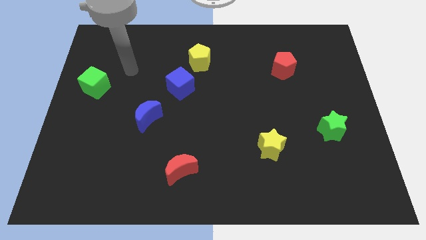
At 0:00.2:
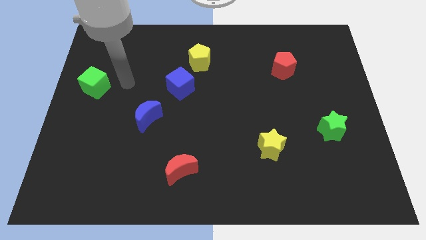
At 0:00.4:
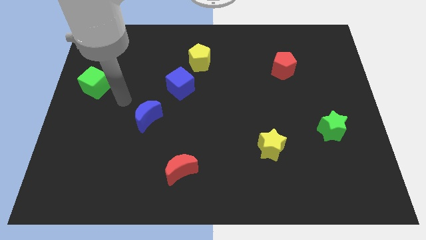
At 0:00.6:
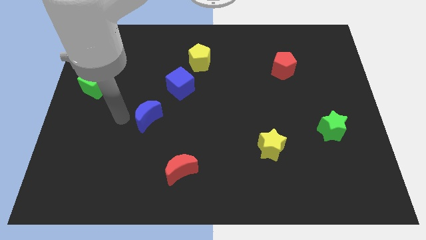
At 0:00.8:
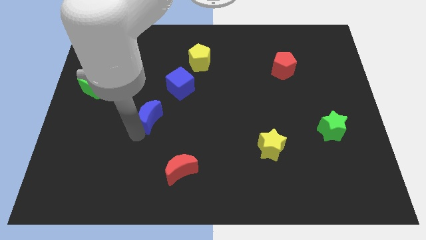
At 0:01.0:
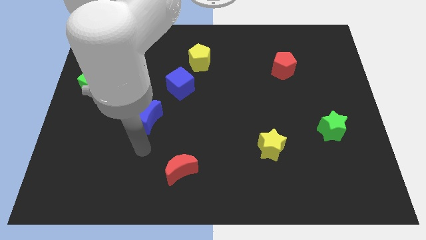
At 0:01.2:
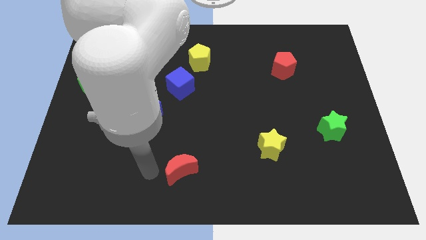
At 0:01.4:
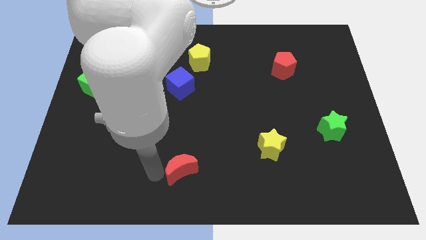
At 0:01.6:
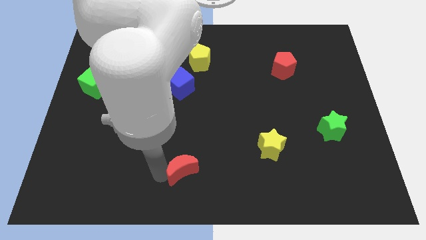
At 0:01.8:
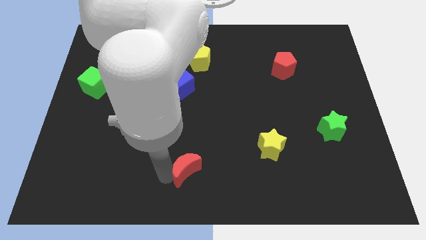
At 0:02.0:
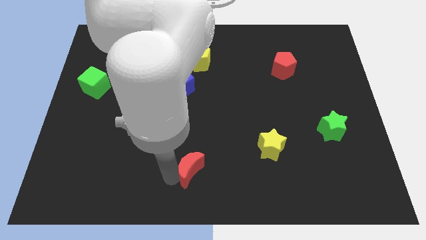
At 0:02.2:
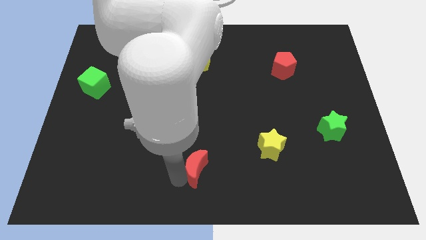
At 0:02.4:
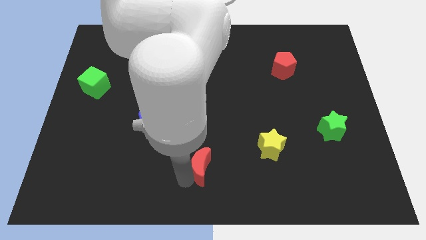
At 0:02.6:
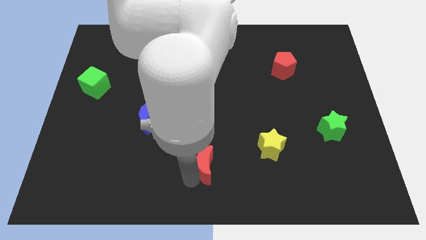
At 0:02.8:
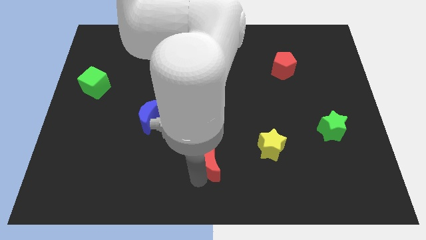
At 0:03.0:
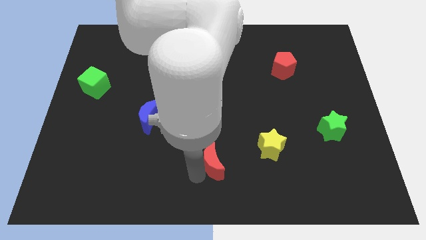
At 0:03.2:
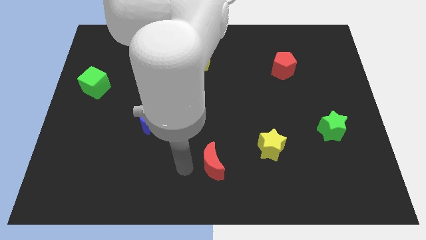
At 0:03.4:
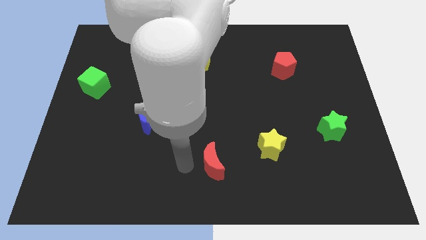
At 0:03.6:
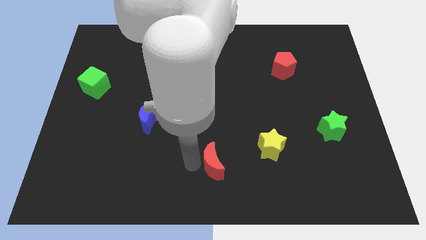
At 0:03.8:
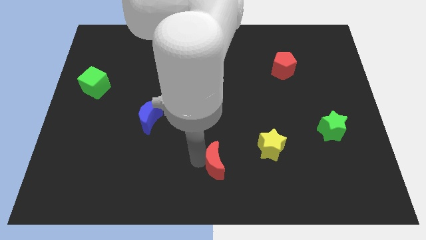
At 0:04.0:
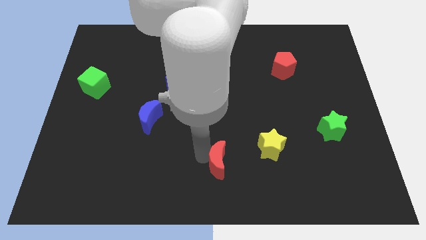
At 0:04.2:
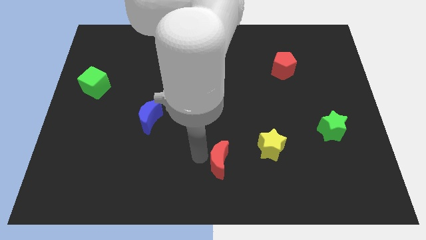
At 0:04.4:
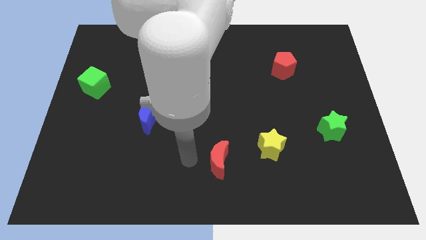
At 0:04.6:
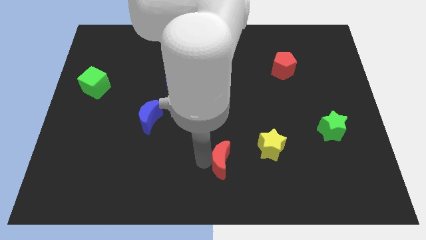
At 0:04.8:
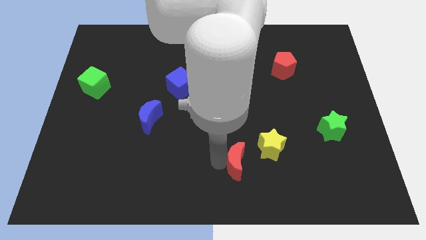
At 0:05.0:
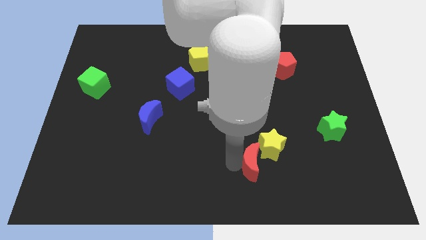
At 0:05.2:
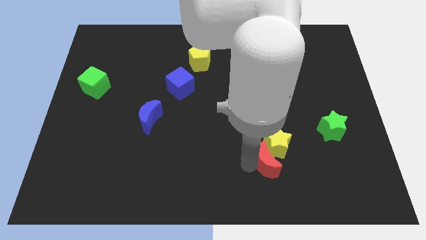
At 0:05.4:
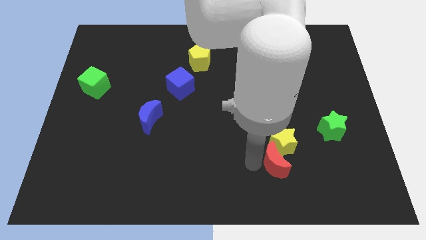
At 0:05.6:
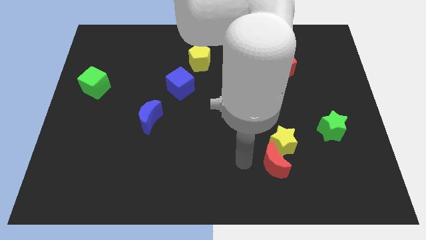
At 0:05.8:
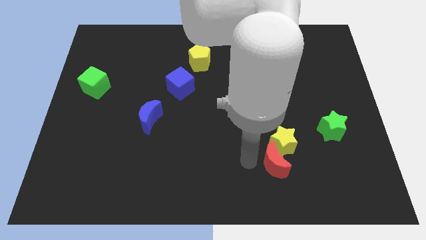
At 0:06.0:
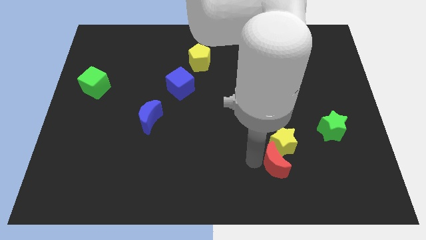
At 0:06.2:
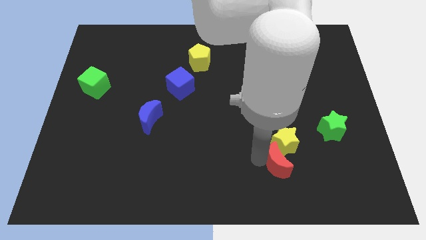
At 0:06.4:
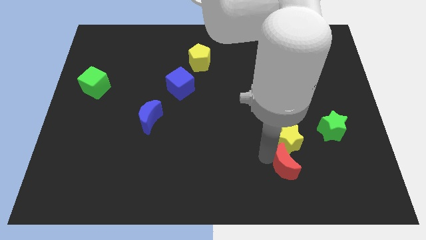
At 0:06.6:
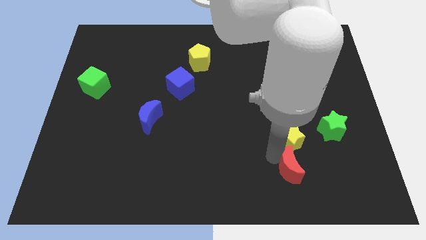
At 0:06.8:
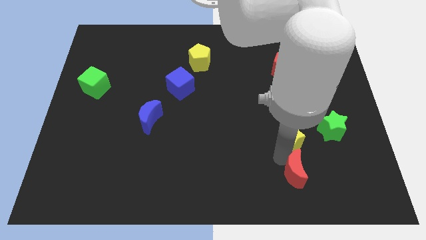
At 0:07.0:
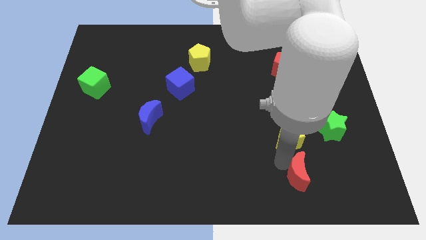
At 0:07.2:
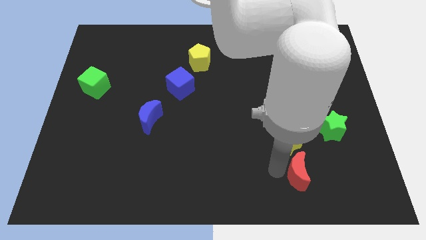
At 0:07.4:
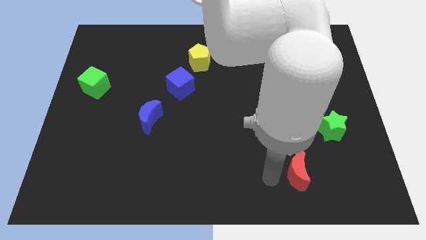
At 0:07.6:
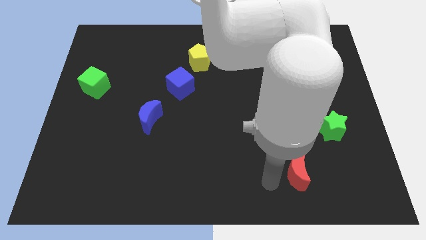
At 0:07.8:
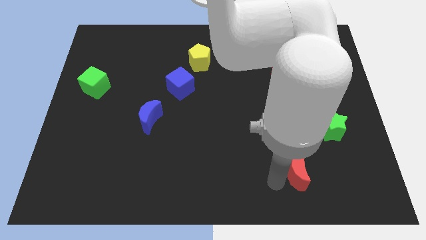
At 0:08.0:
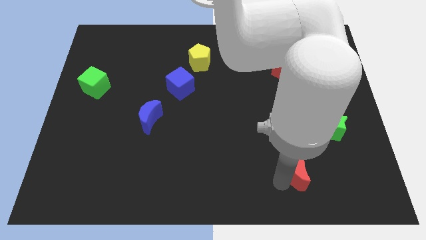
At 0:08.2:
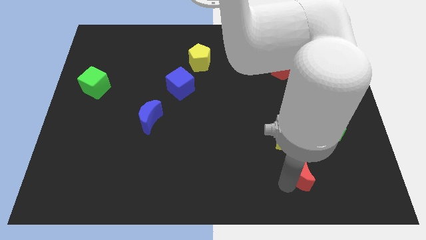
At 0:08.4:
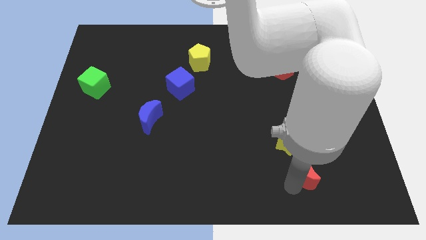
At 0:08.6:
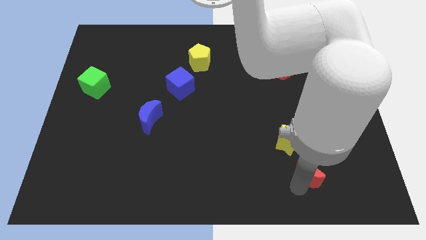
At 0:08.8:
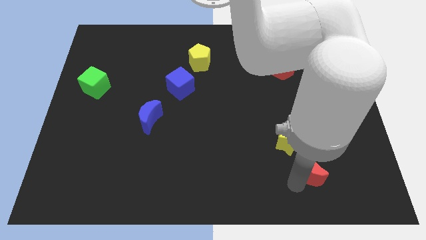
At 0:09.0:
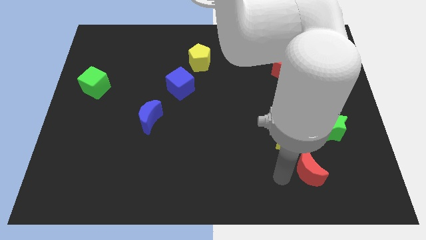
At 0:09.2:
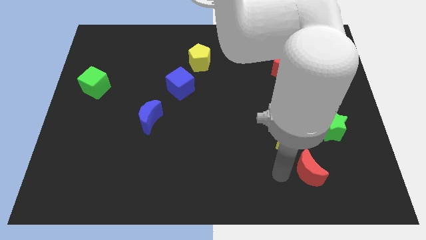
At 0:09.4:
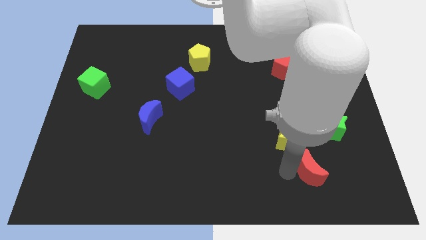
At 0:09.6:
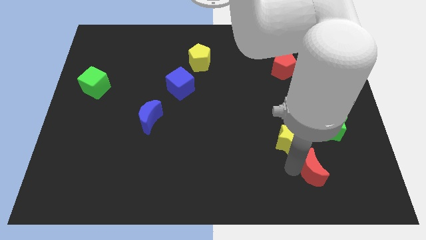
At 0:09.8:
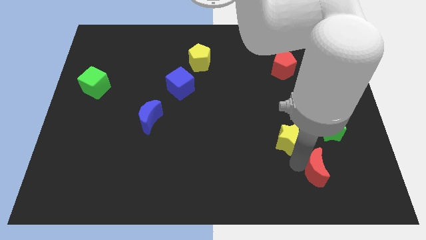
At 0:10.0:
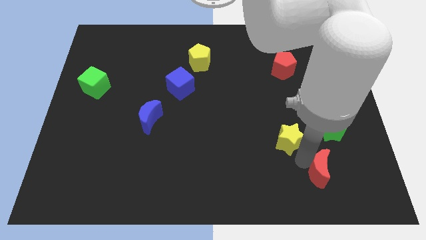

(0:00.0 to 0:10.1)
move the red moon to the bottom of the green star

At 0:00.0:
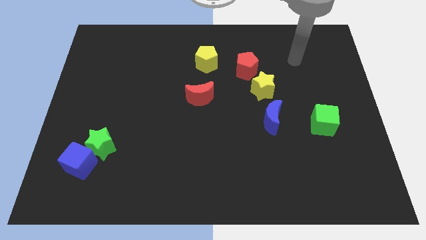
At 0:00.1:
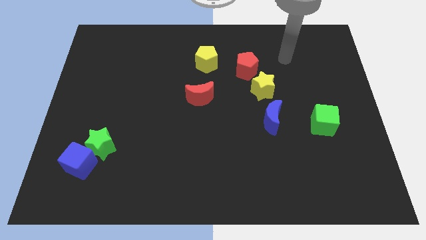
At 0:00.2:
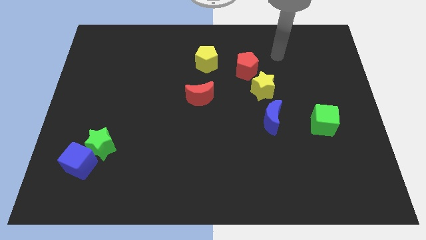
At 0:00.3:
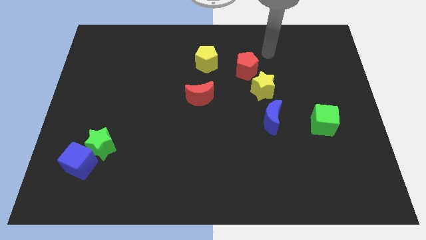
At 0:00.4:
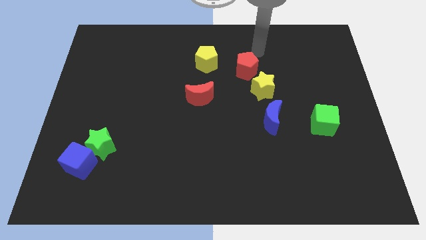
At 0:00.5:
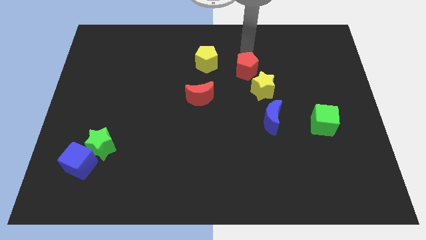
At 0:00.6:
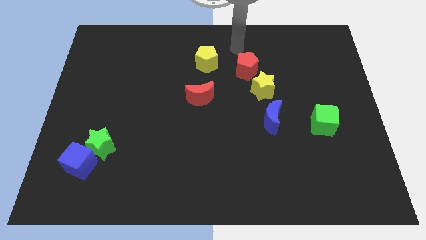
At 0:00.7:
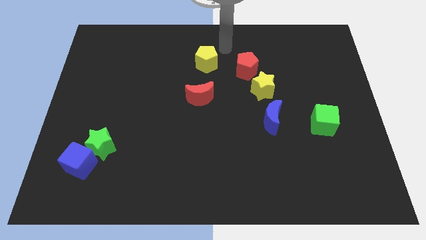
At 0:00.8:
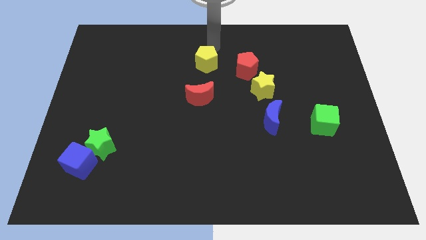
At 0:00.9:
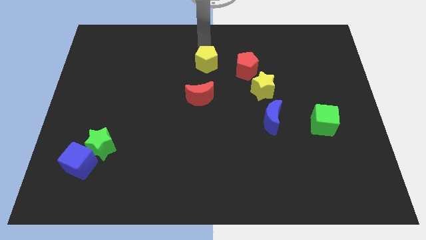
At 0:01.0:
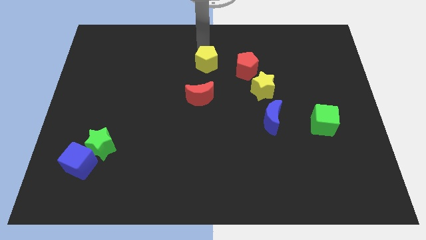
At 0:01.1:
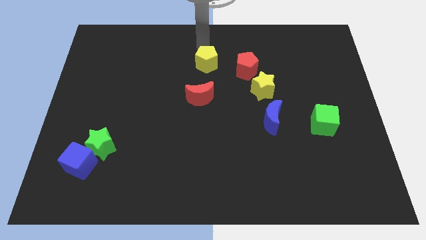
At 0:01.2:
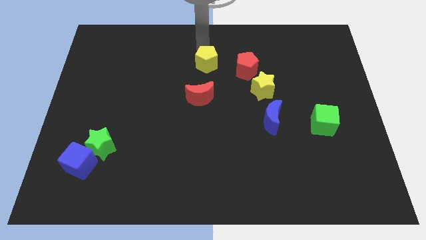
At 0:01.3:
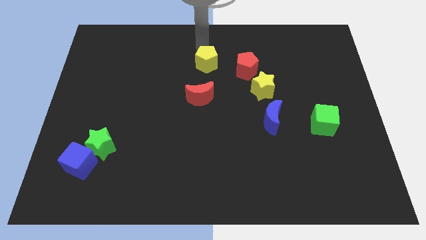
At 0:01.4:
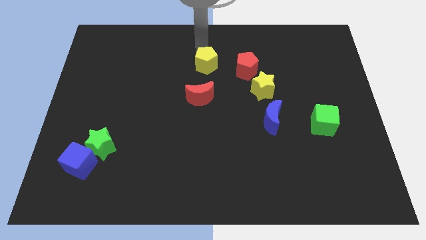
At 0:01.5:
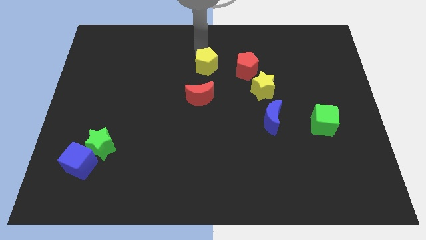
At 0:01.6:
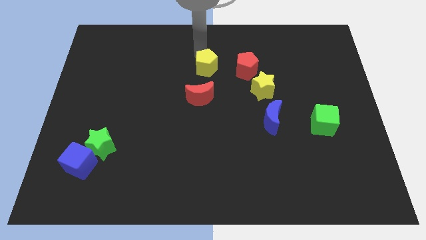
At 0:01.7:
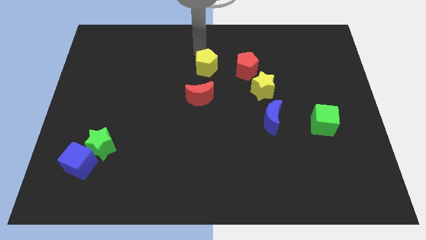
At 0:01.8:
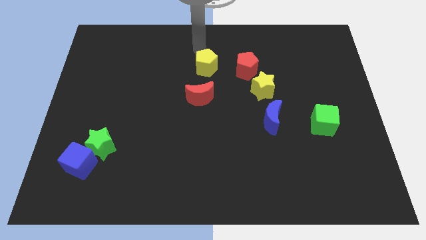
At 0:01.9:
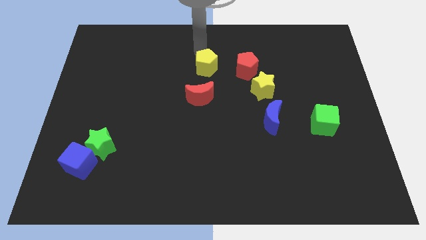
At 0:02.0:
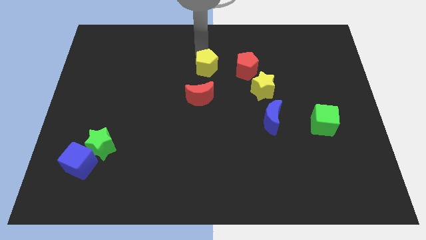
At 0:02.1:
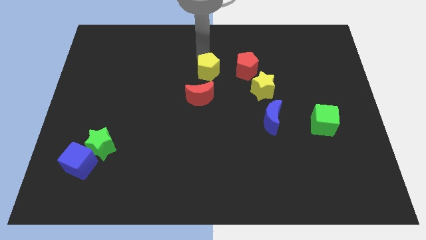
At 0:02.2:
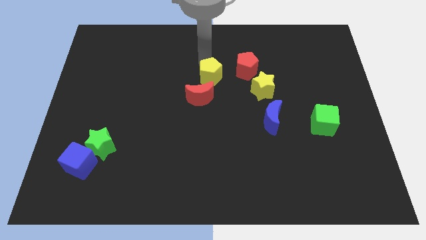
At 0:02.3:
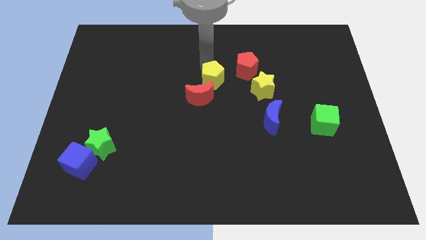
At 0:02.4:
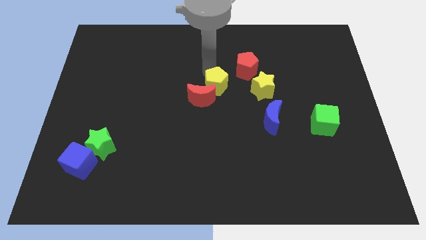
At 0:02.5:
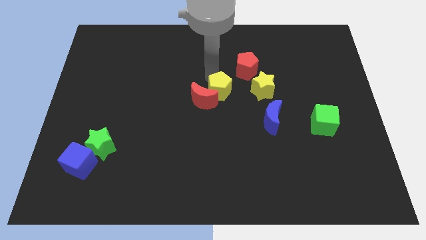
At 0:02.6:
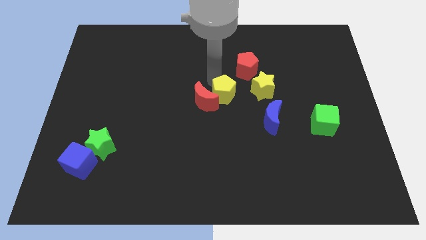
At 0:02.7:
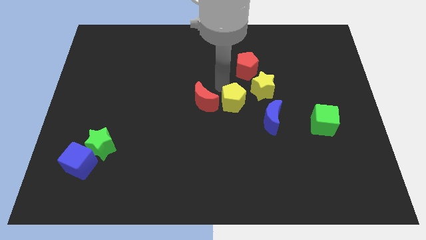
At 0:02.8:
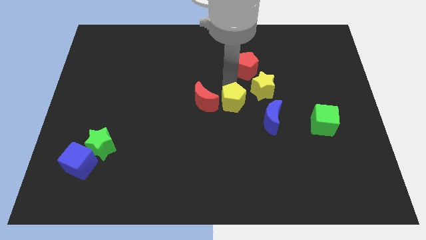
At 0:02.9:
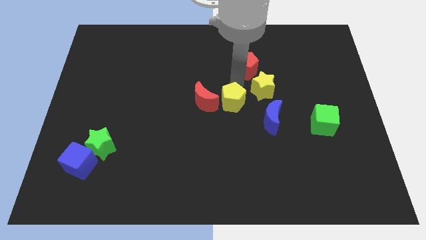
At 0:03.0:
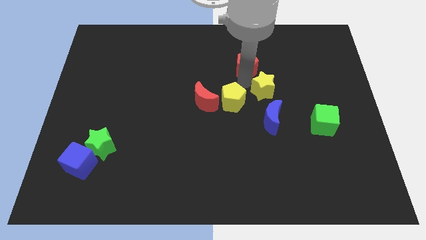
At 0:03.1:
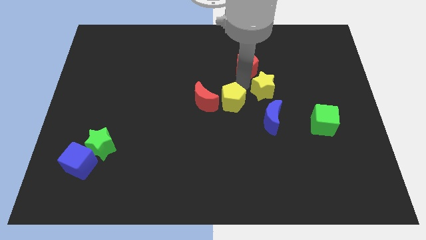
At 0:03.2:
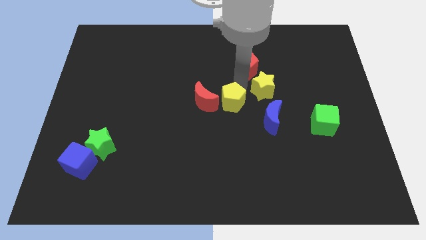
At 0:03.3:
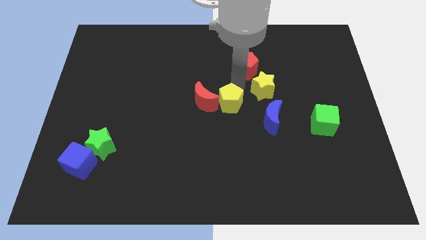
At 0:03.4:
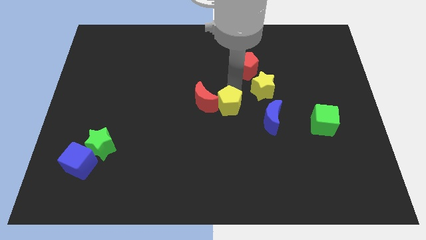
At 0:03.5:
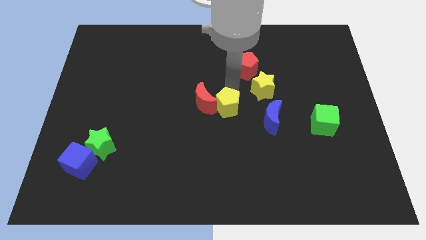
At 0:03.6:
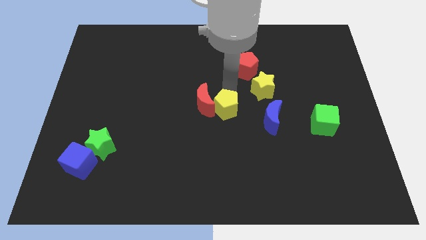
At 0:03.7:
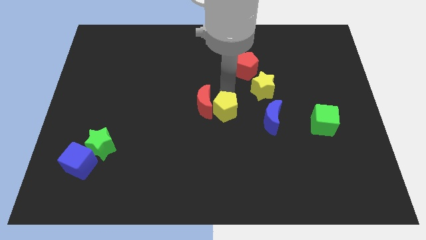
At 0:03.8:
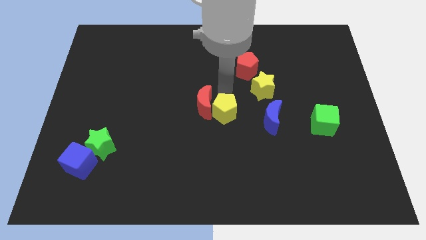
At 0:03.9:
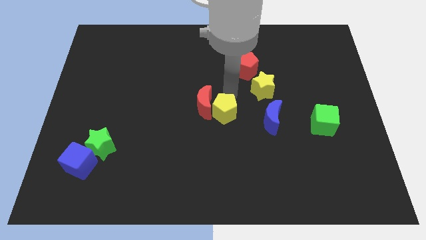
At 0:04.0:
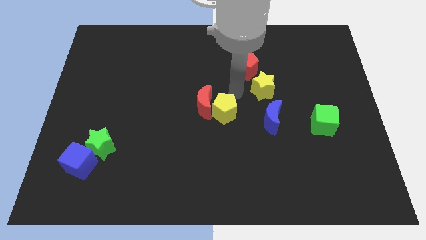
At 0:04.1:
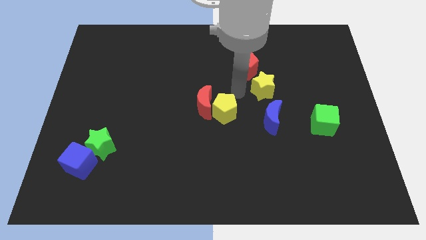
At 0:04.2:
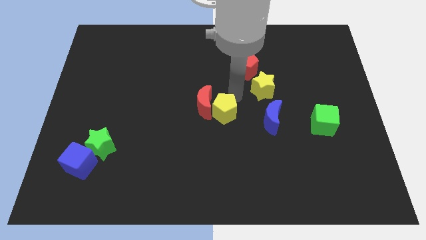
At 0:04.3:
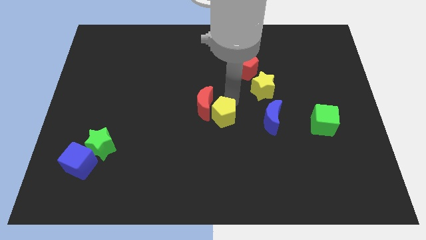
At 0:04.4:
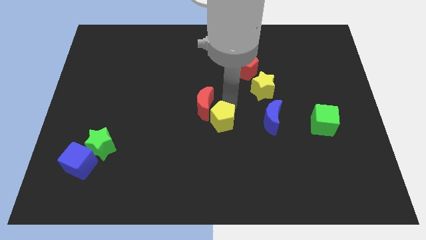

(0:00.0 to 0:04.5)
move the yellow pentagon below the red moon
